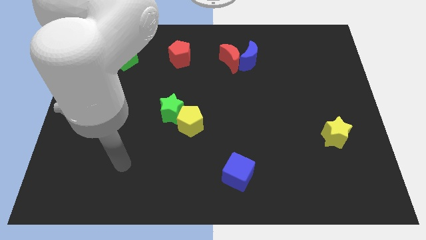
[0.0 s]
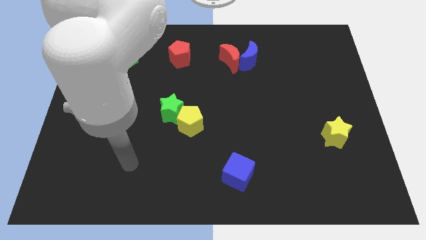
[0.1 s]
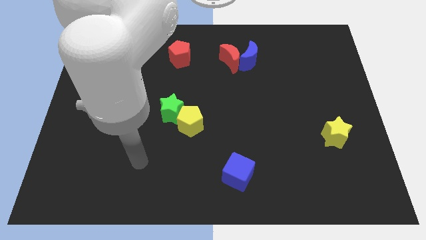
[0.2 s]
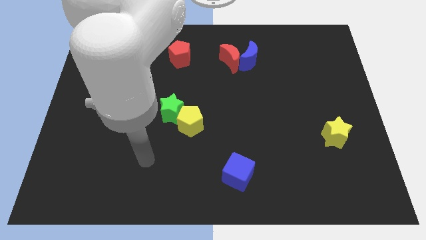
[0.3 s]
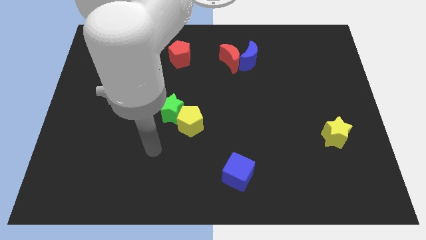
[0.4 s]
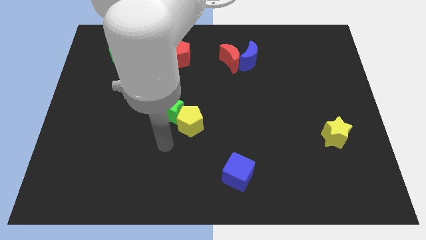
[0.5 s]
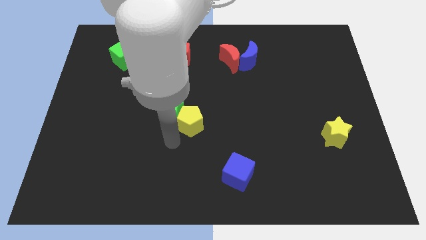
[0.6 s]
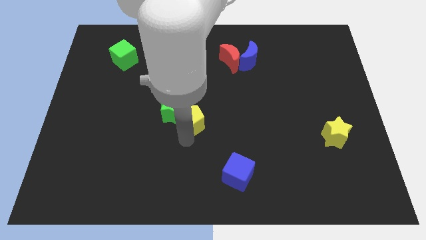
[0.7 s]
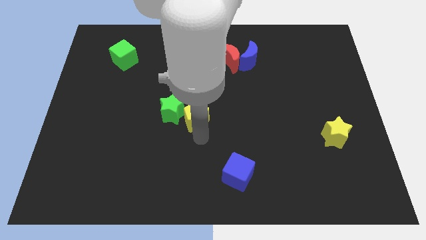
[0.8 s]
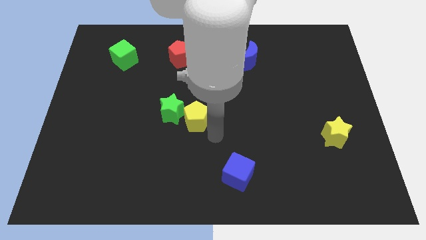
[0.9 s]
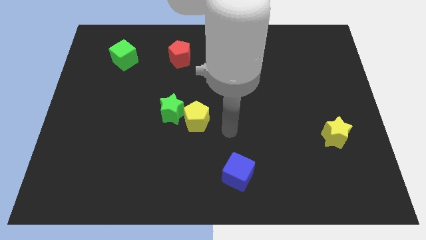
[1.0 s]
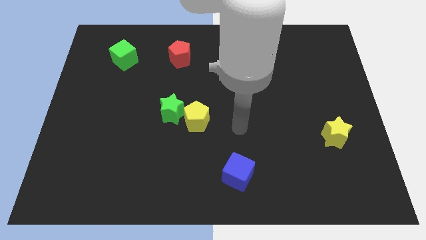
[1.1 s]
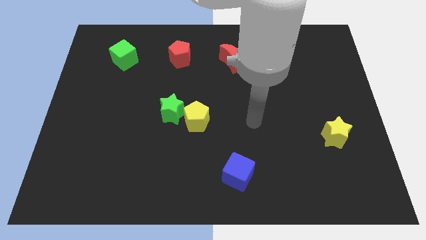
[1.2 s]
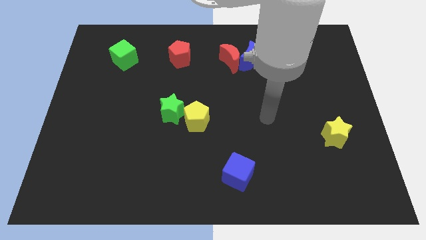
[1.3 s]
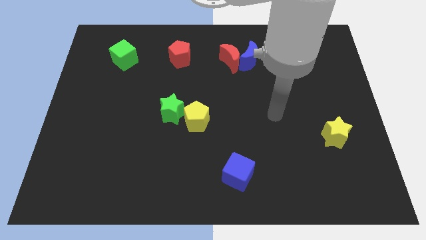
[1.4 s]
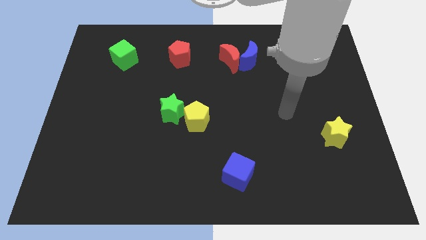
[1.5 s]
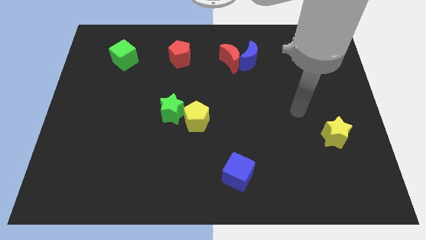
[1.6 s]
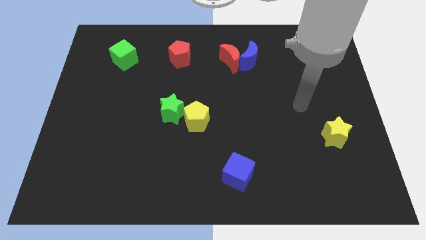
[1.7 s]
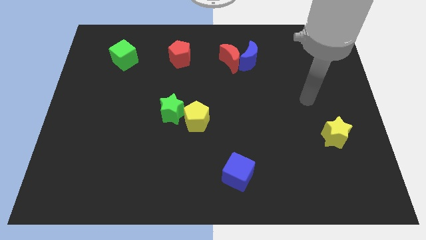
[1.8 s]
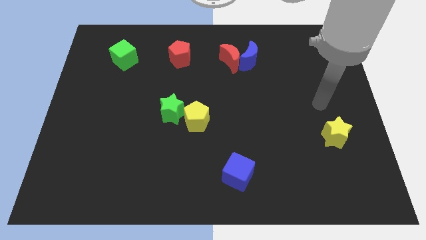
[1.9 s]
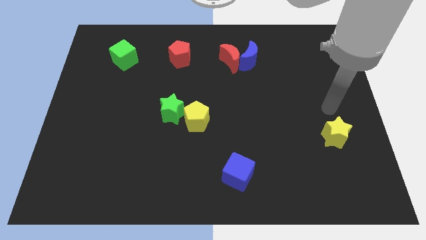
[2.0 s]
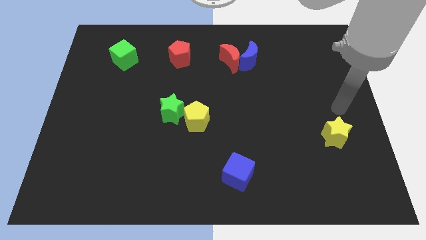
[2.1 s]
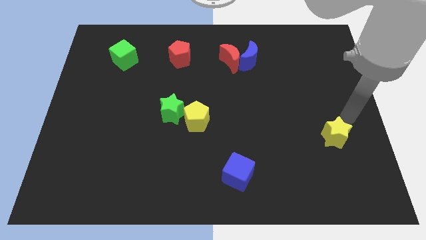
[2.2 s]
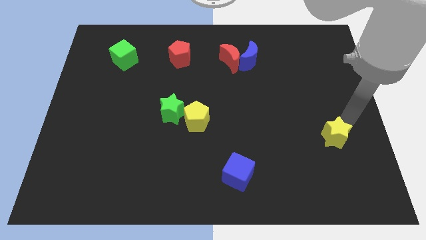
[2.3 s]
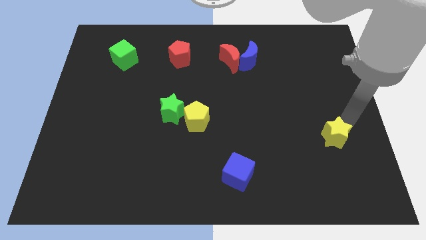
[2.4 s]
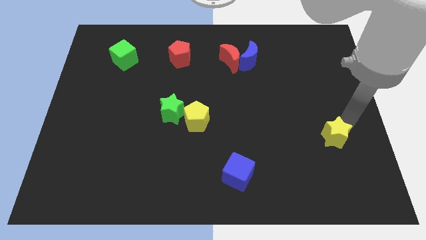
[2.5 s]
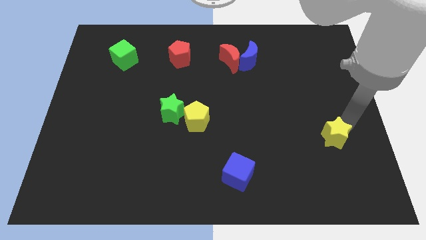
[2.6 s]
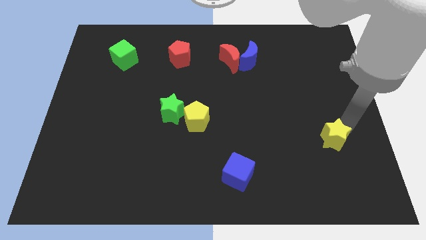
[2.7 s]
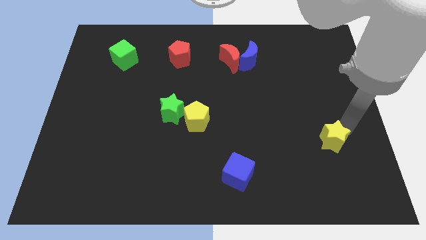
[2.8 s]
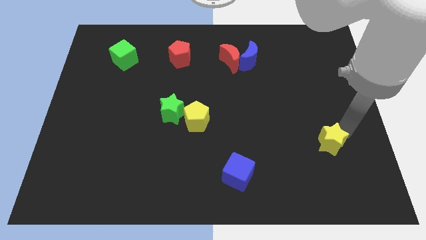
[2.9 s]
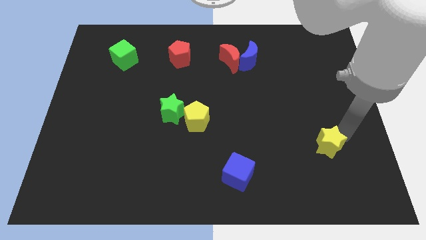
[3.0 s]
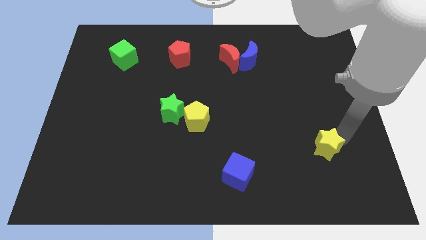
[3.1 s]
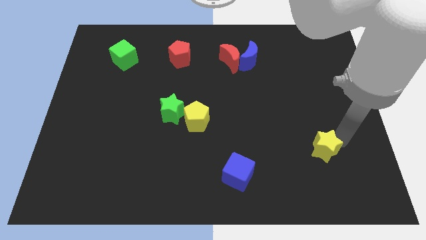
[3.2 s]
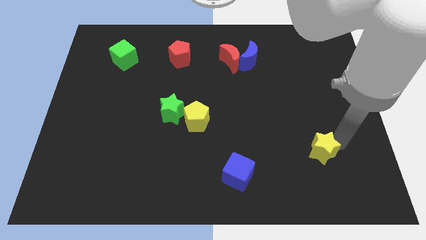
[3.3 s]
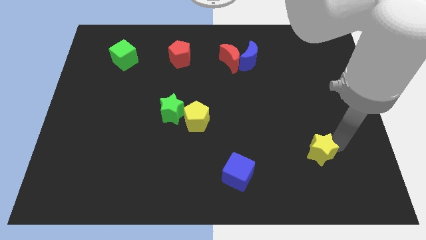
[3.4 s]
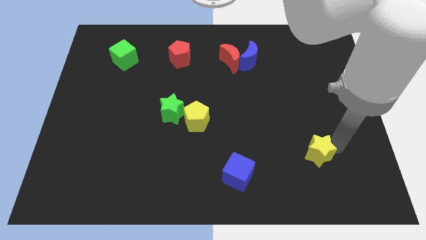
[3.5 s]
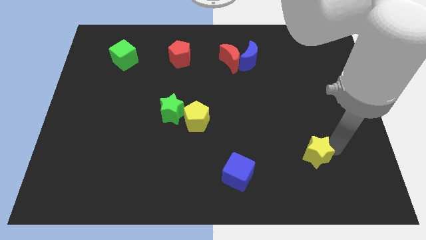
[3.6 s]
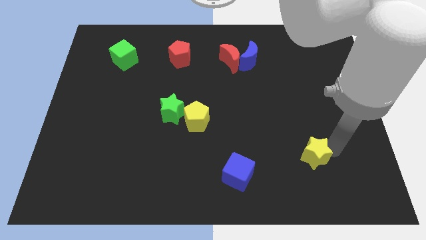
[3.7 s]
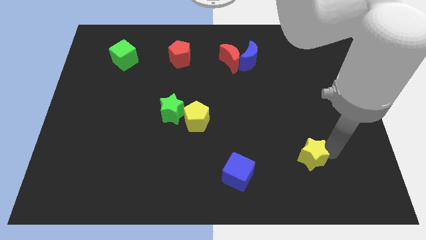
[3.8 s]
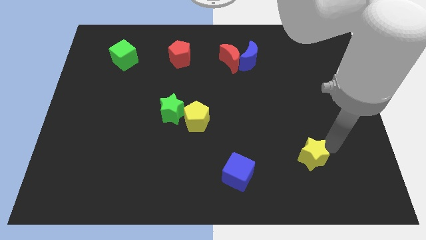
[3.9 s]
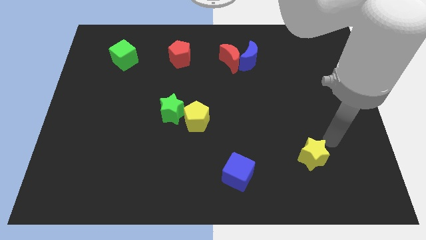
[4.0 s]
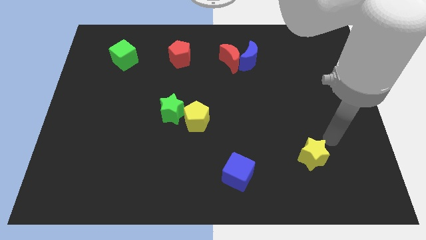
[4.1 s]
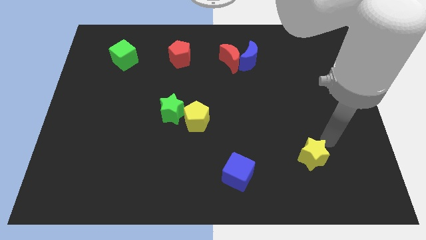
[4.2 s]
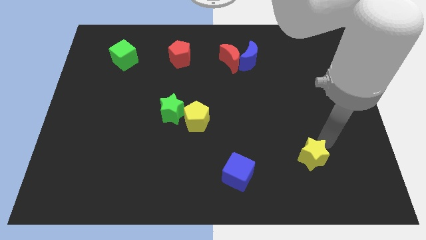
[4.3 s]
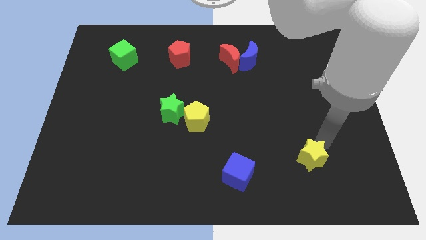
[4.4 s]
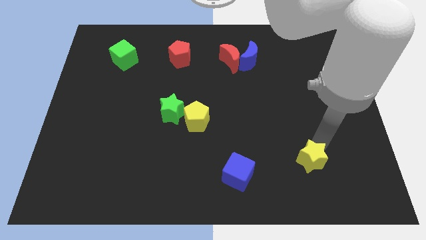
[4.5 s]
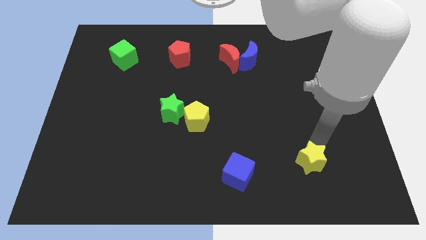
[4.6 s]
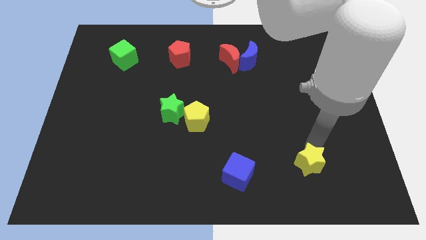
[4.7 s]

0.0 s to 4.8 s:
put the yellow star to the right of the blue cube

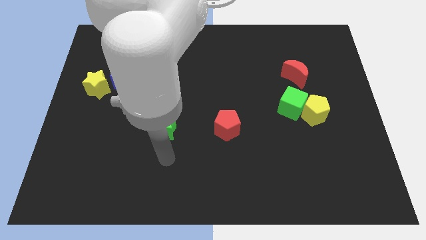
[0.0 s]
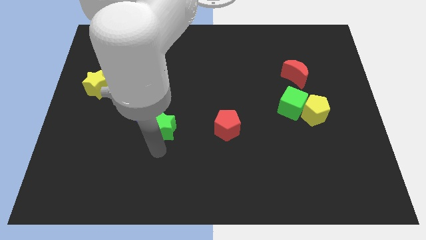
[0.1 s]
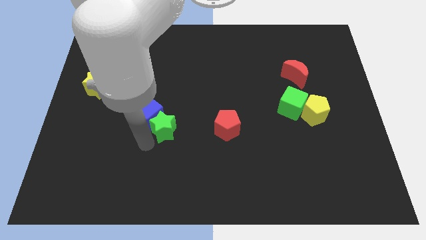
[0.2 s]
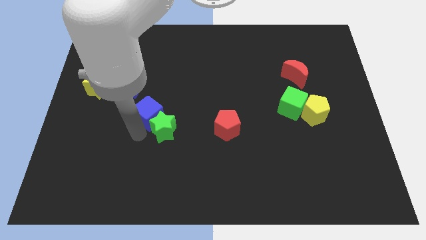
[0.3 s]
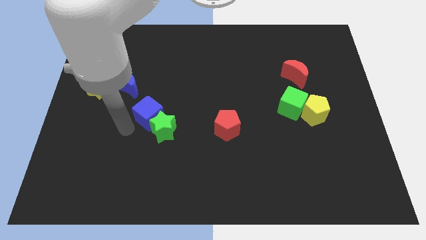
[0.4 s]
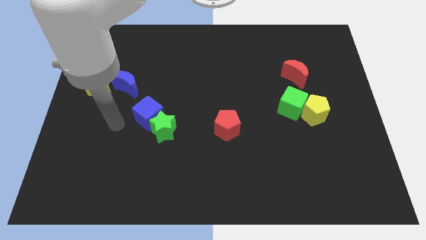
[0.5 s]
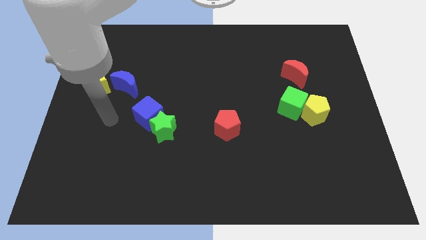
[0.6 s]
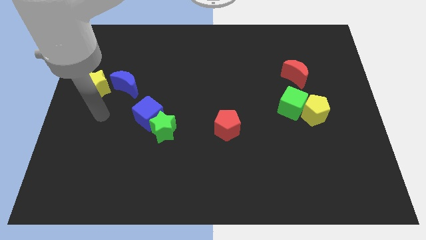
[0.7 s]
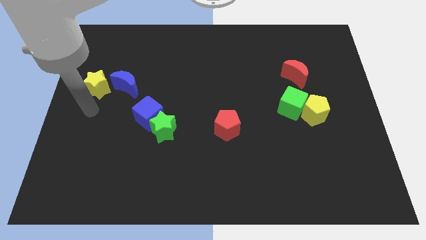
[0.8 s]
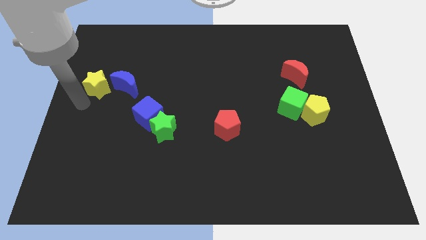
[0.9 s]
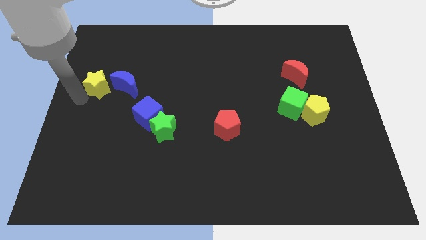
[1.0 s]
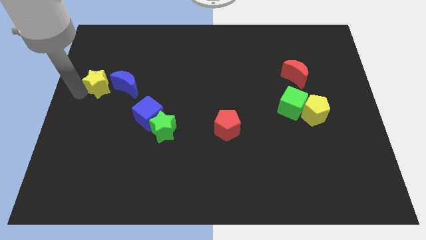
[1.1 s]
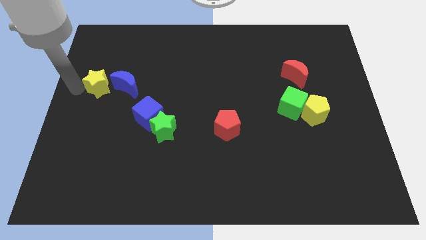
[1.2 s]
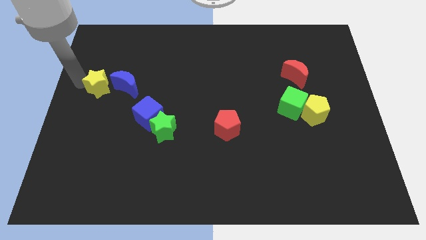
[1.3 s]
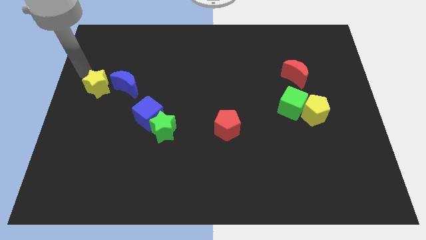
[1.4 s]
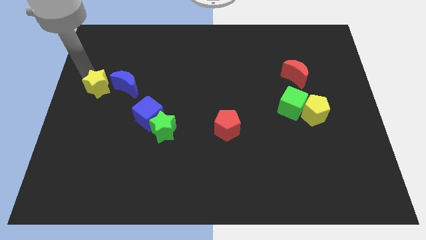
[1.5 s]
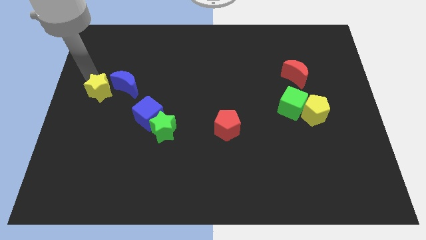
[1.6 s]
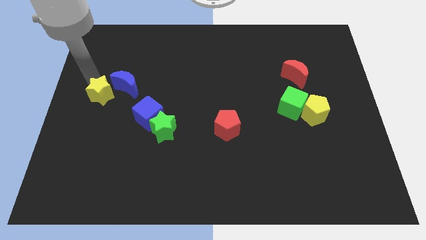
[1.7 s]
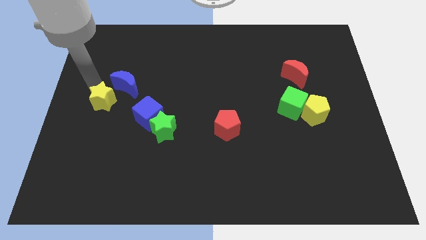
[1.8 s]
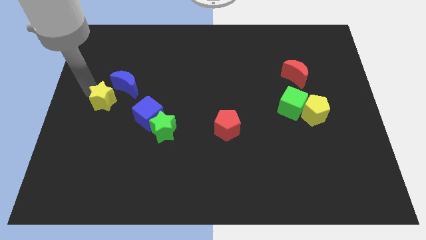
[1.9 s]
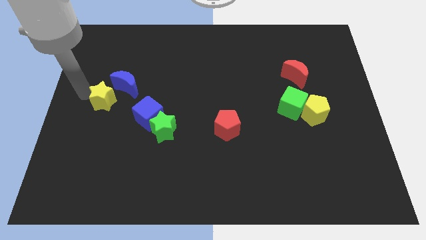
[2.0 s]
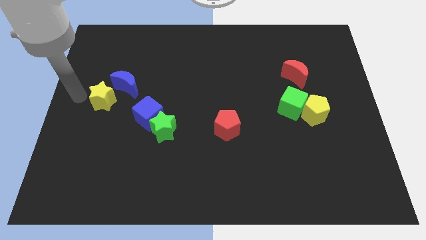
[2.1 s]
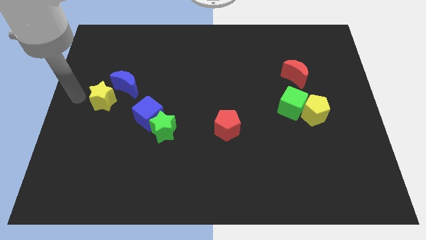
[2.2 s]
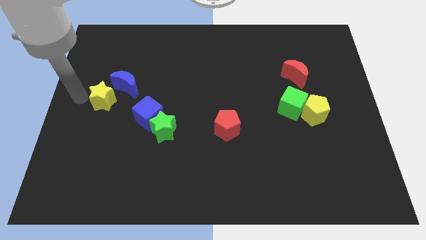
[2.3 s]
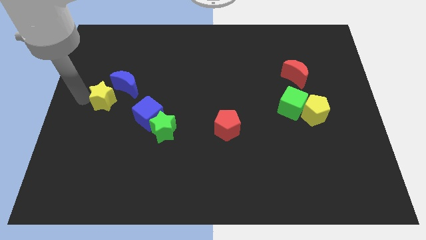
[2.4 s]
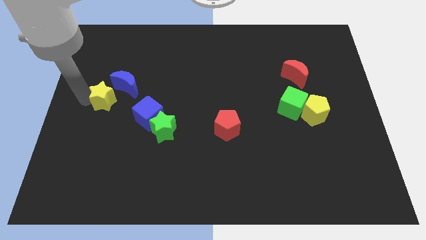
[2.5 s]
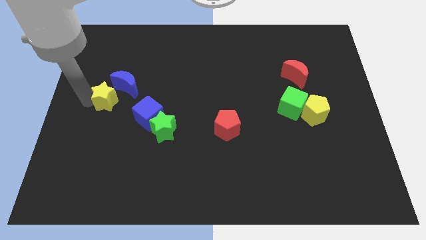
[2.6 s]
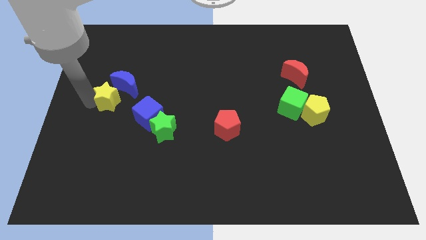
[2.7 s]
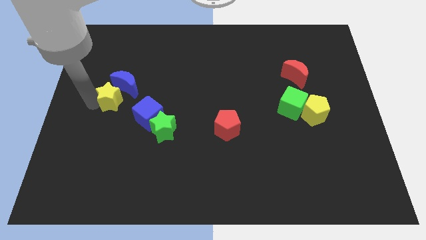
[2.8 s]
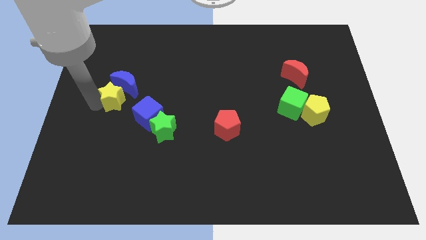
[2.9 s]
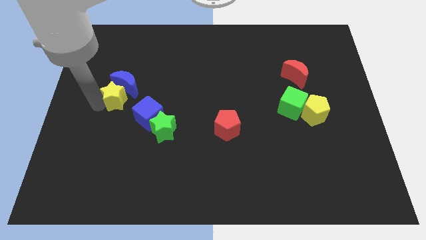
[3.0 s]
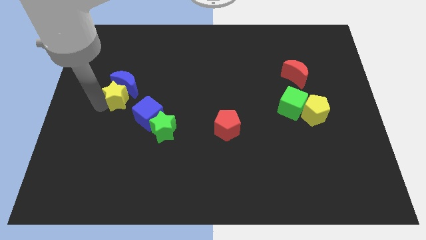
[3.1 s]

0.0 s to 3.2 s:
push the yellow star to the bottom right side of the blue moon
